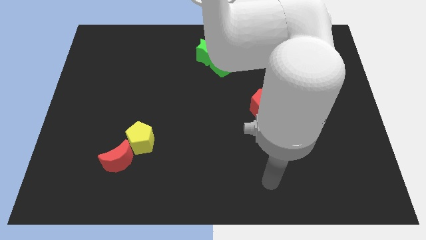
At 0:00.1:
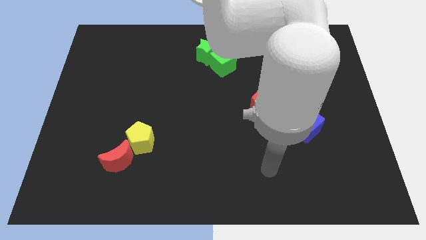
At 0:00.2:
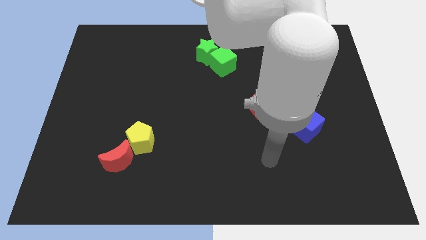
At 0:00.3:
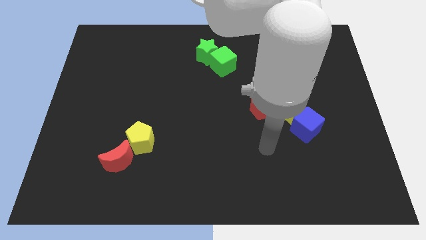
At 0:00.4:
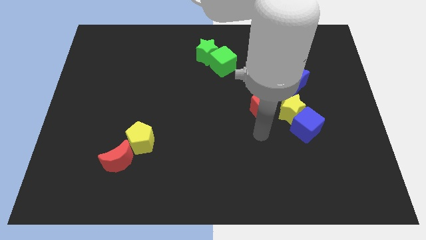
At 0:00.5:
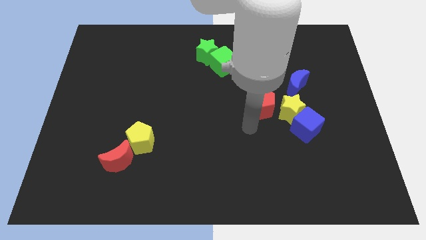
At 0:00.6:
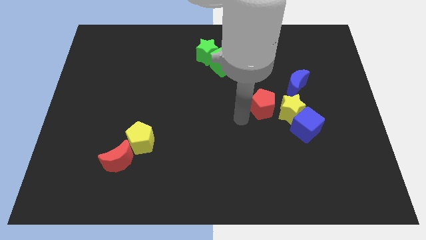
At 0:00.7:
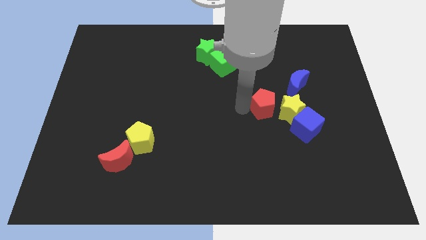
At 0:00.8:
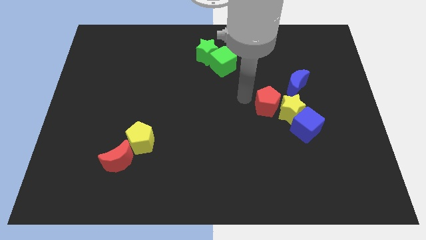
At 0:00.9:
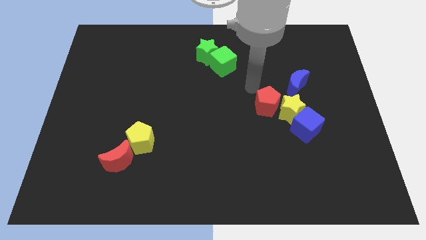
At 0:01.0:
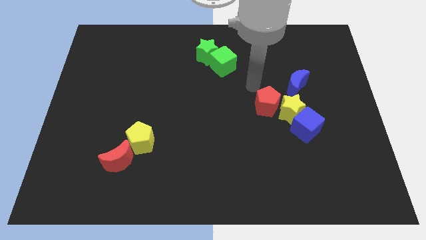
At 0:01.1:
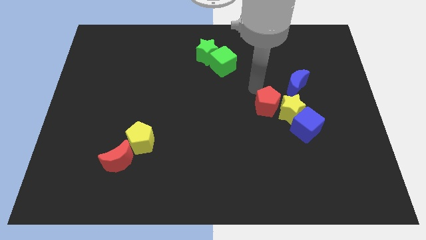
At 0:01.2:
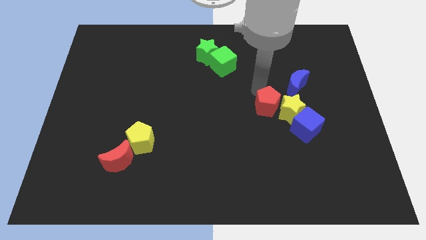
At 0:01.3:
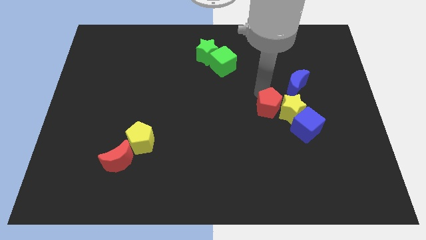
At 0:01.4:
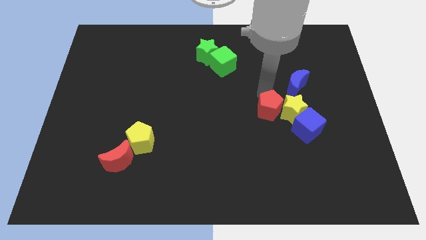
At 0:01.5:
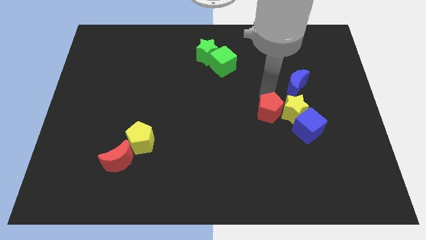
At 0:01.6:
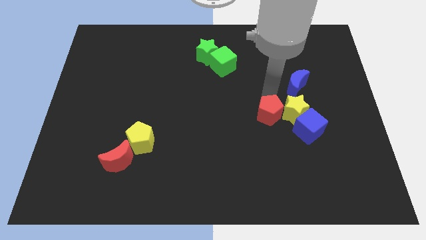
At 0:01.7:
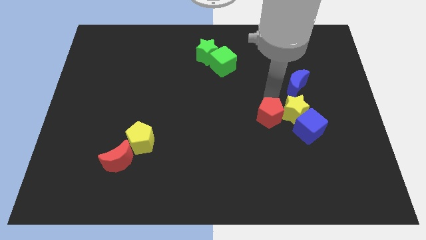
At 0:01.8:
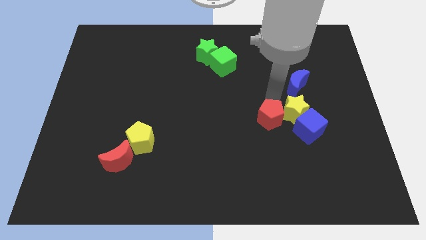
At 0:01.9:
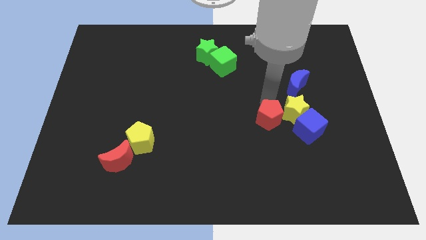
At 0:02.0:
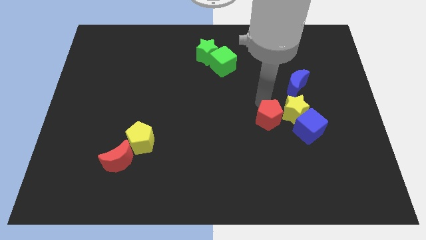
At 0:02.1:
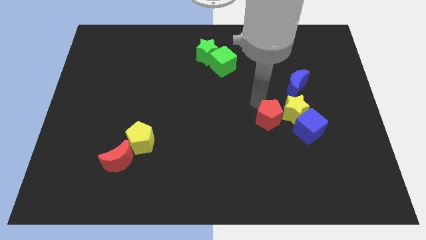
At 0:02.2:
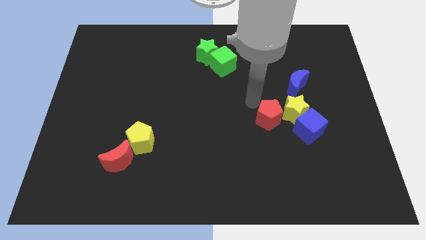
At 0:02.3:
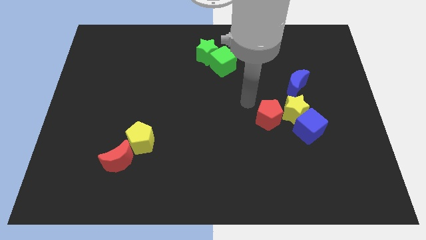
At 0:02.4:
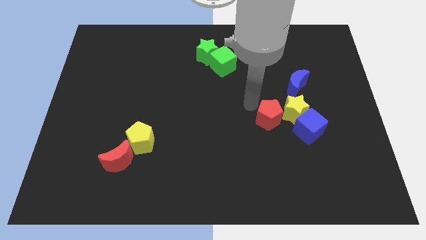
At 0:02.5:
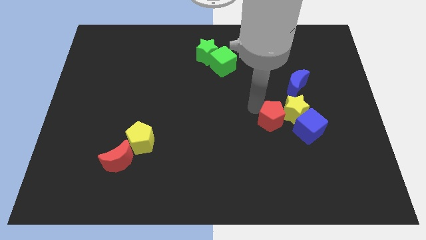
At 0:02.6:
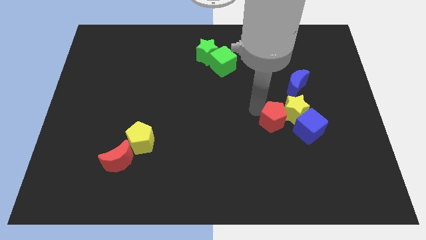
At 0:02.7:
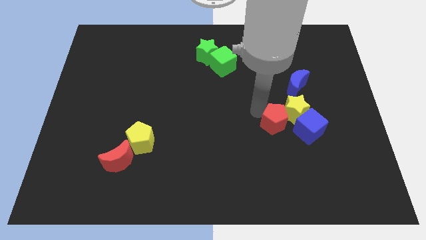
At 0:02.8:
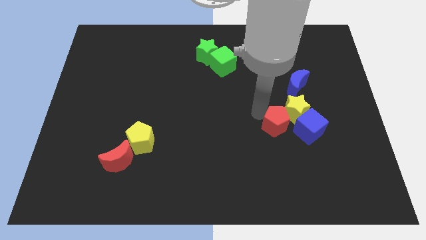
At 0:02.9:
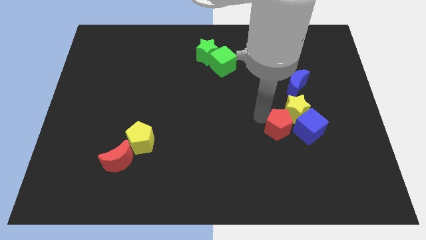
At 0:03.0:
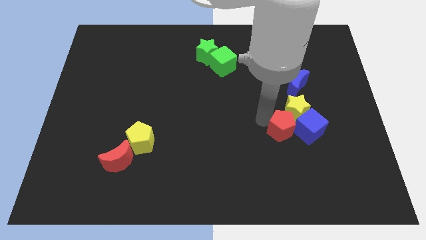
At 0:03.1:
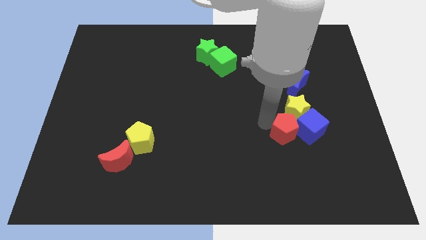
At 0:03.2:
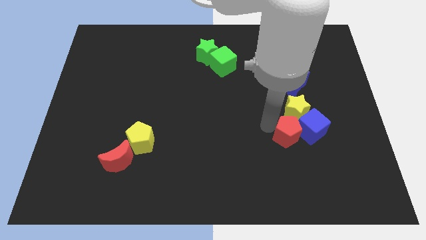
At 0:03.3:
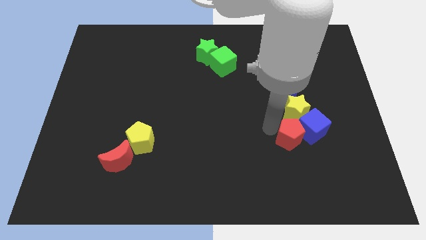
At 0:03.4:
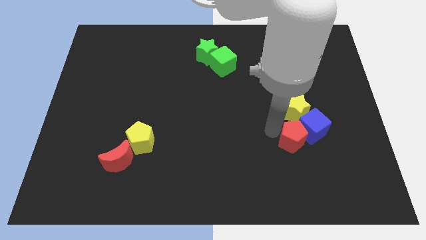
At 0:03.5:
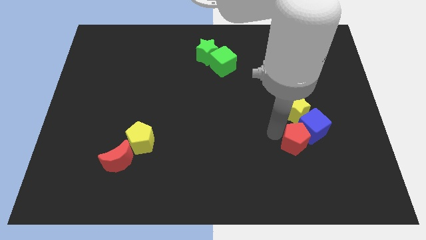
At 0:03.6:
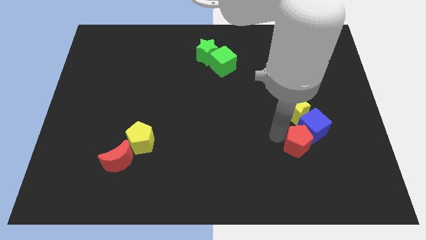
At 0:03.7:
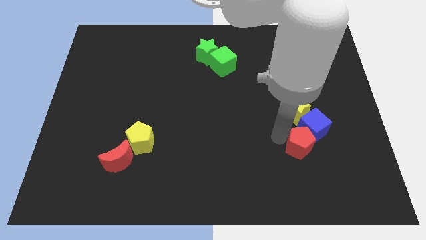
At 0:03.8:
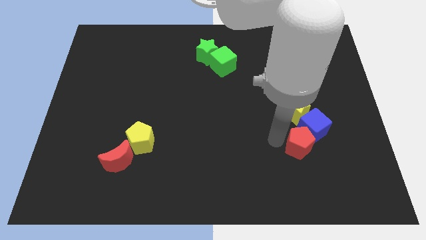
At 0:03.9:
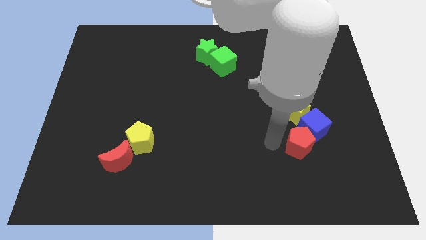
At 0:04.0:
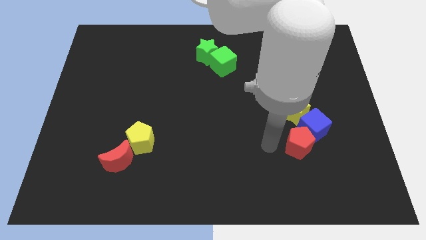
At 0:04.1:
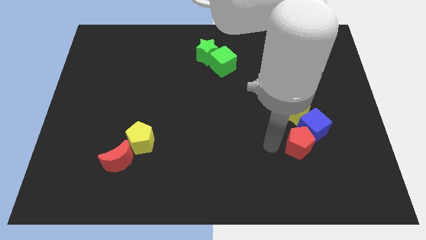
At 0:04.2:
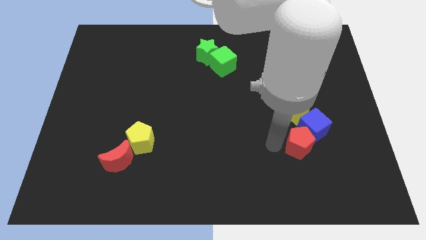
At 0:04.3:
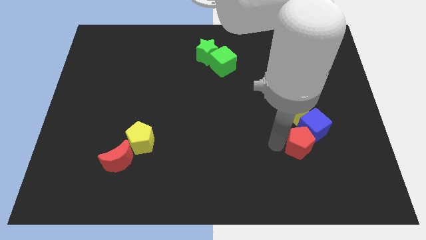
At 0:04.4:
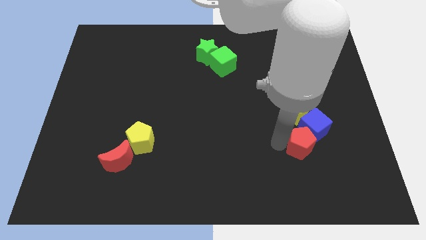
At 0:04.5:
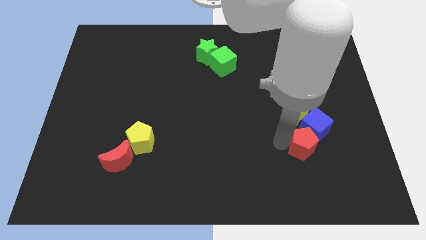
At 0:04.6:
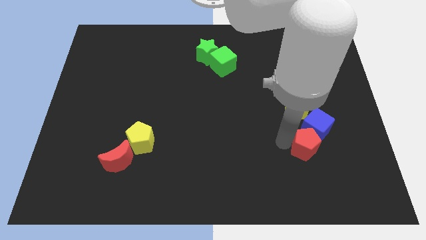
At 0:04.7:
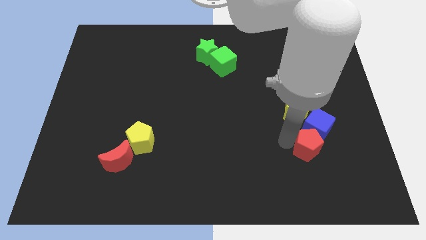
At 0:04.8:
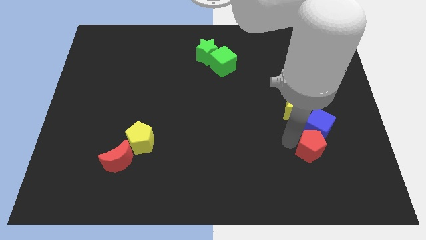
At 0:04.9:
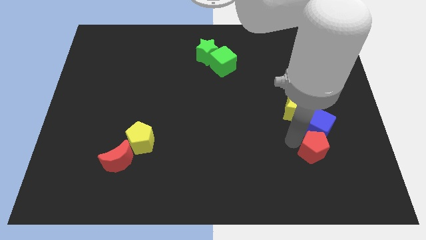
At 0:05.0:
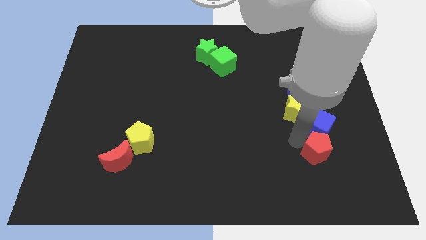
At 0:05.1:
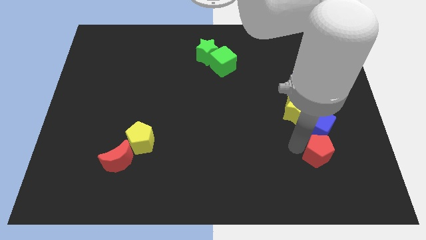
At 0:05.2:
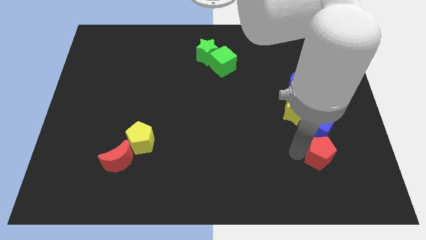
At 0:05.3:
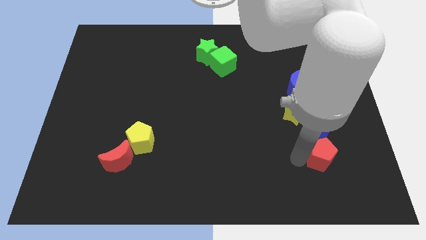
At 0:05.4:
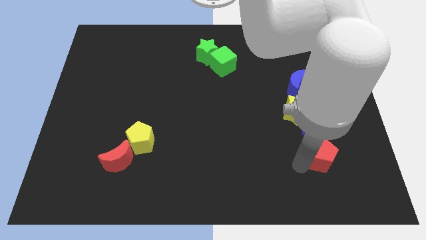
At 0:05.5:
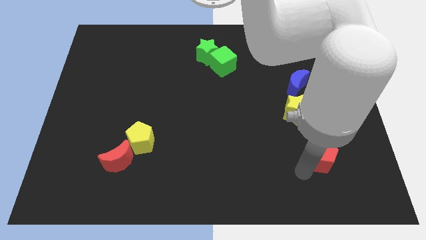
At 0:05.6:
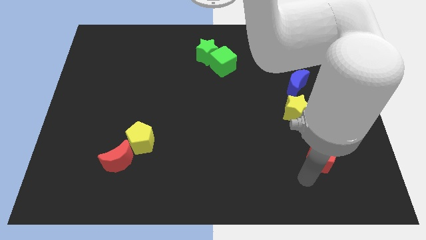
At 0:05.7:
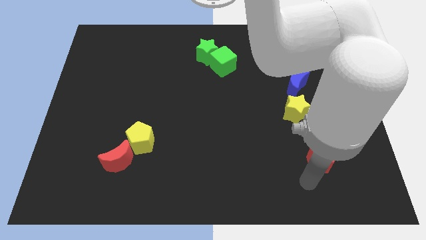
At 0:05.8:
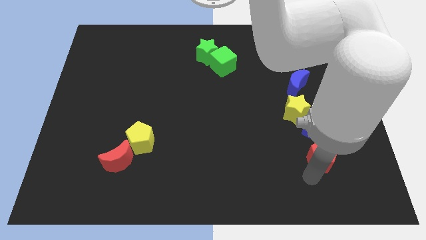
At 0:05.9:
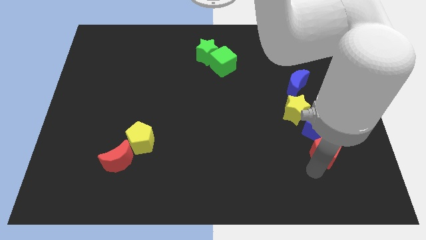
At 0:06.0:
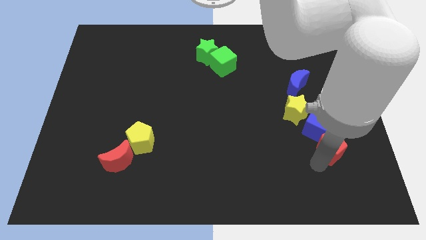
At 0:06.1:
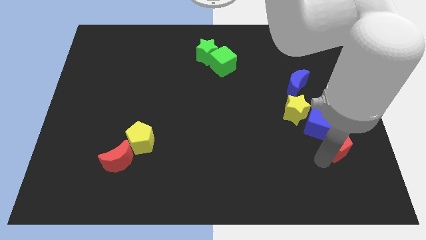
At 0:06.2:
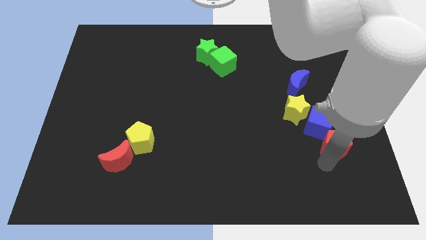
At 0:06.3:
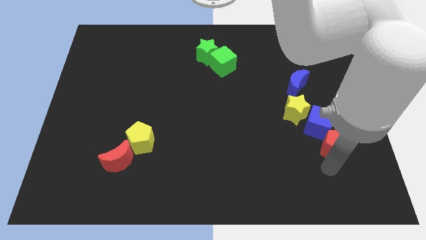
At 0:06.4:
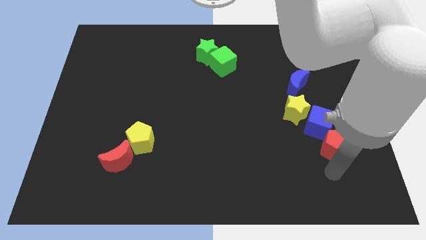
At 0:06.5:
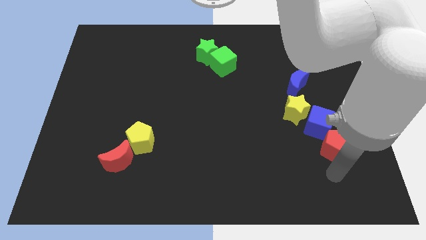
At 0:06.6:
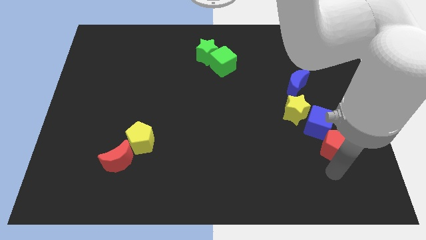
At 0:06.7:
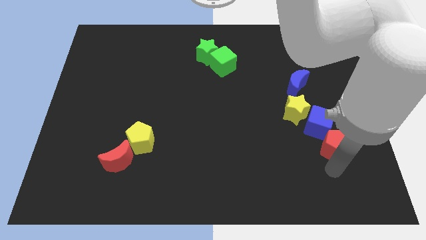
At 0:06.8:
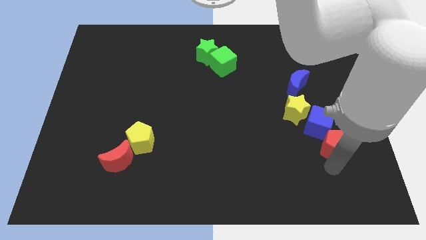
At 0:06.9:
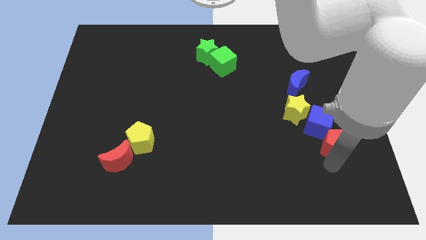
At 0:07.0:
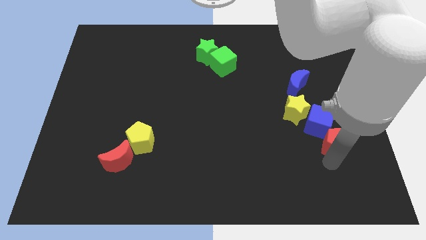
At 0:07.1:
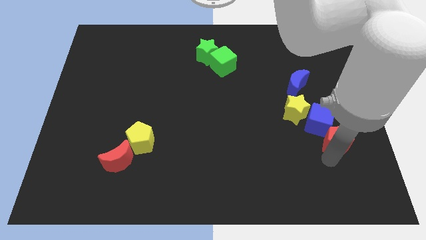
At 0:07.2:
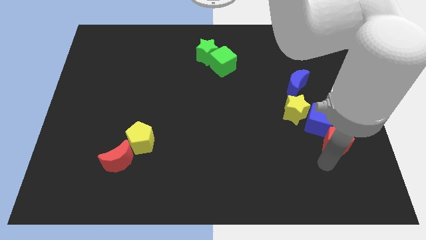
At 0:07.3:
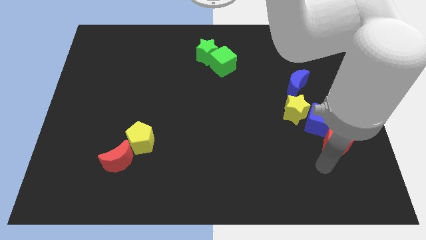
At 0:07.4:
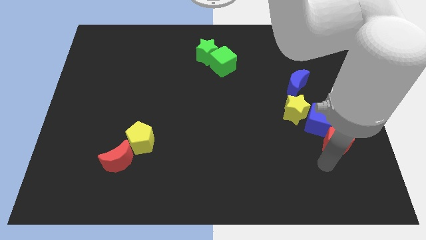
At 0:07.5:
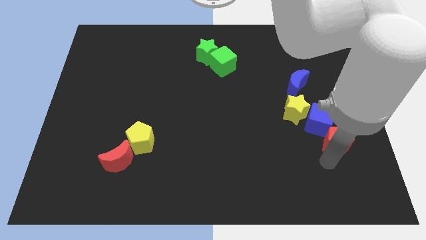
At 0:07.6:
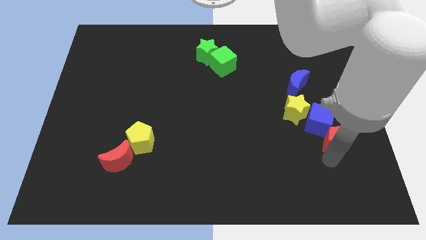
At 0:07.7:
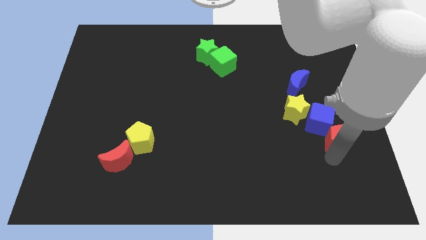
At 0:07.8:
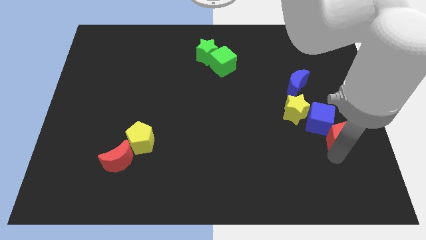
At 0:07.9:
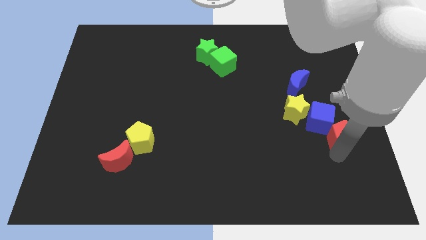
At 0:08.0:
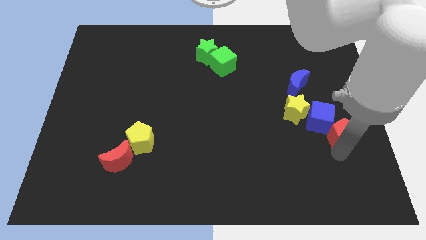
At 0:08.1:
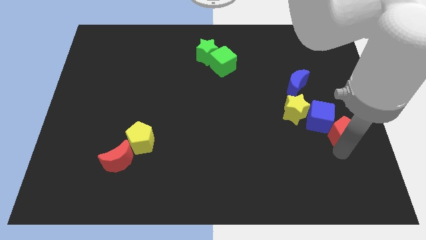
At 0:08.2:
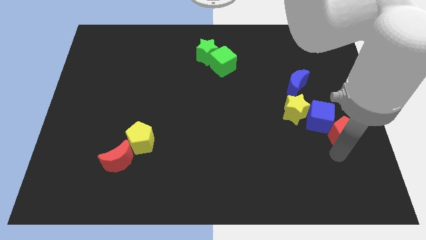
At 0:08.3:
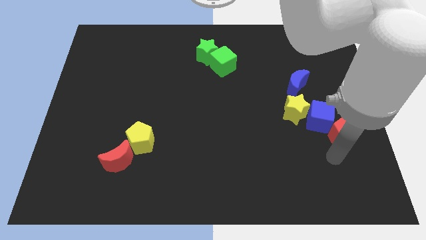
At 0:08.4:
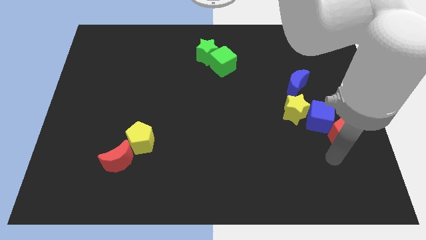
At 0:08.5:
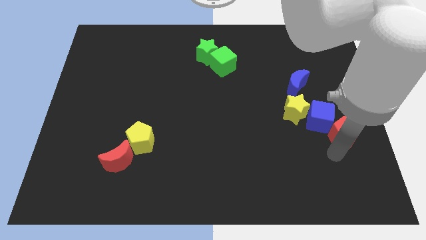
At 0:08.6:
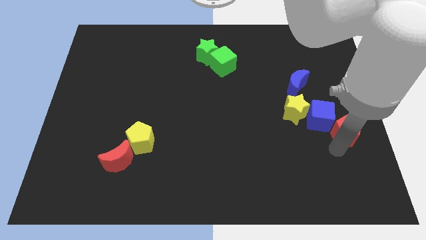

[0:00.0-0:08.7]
move the red pentagon to the center right
